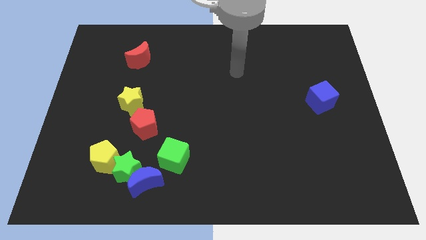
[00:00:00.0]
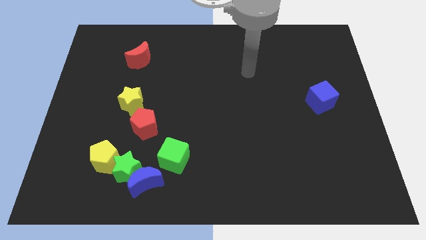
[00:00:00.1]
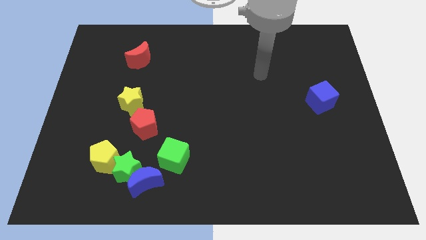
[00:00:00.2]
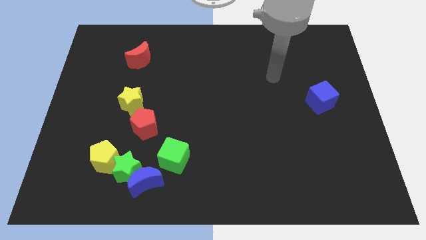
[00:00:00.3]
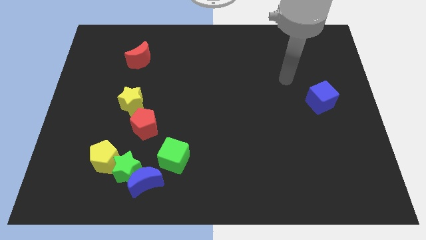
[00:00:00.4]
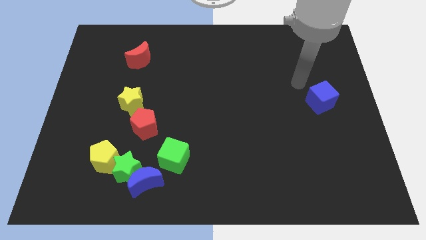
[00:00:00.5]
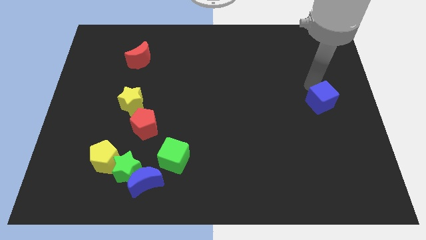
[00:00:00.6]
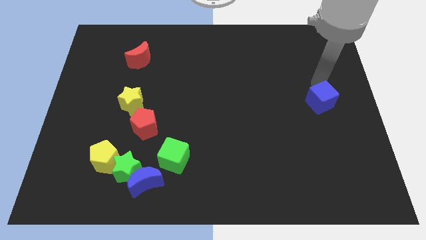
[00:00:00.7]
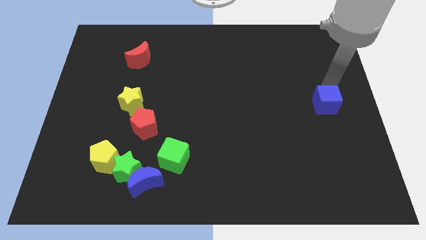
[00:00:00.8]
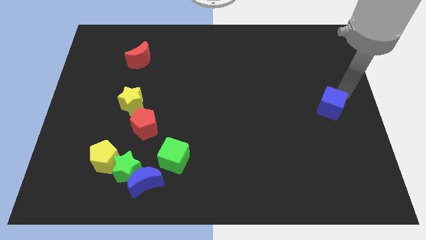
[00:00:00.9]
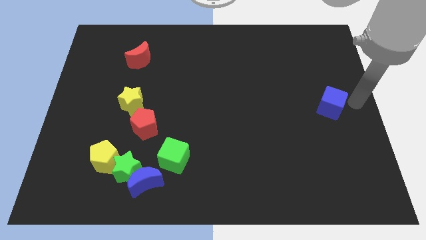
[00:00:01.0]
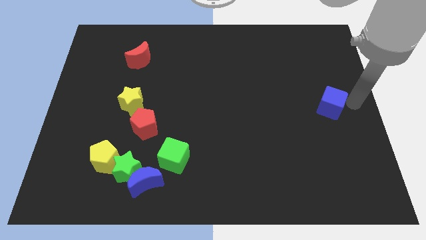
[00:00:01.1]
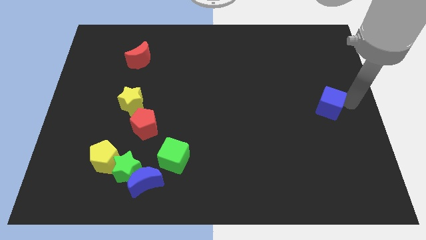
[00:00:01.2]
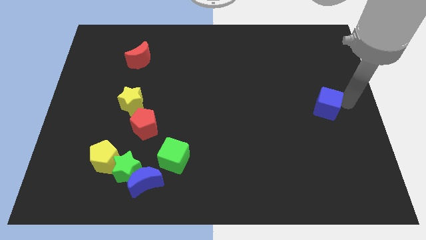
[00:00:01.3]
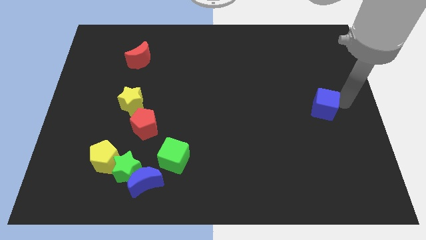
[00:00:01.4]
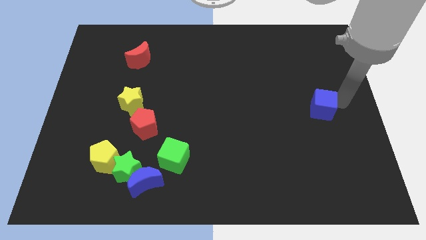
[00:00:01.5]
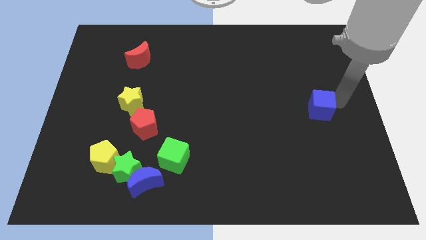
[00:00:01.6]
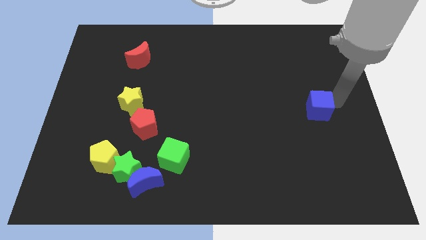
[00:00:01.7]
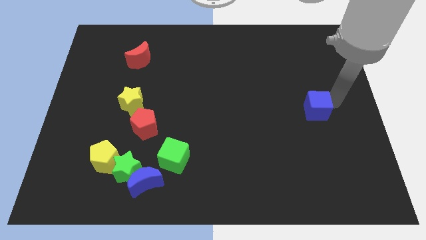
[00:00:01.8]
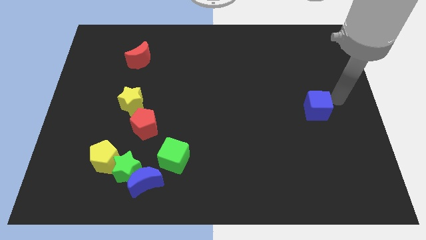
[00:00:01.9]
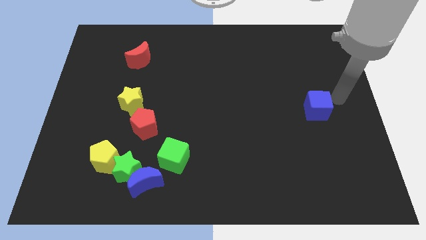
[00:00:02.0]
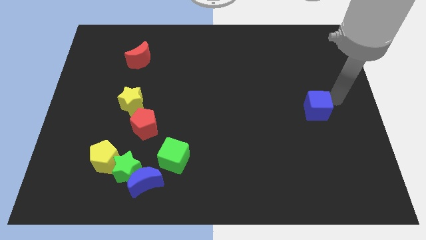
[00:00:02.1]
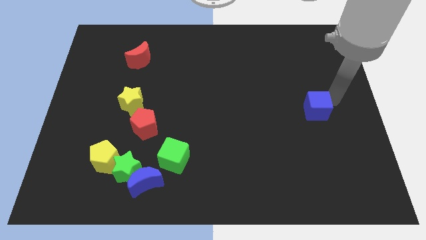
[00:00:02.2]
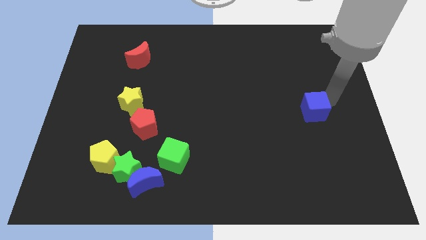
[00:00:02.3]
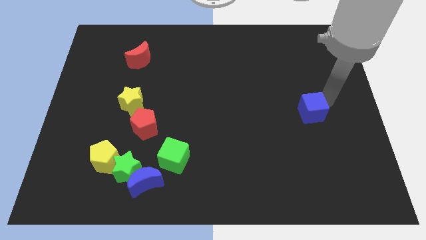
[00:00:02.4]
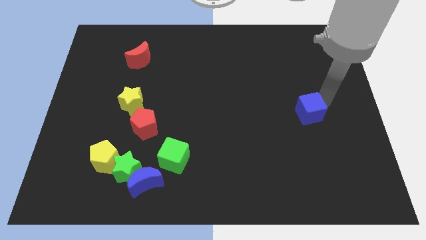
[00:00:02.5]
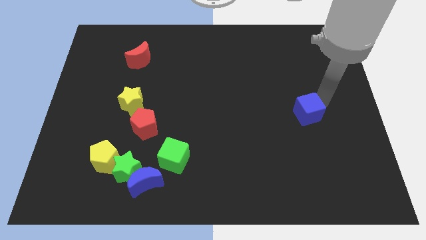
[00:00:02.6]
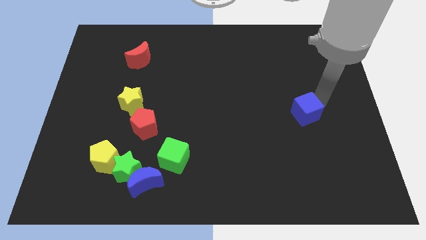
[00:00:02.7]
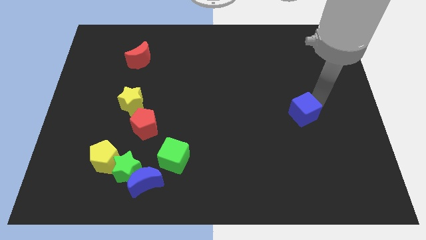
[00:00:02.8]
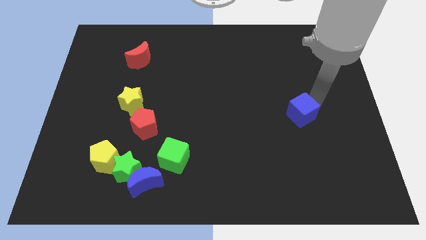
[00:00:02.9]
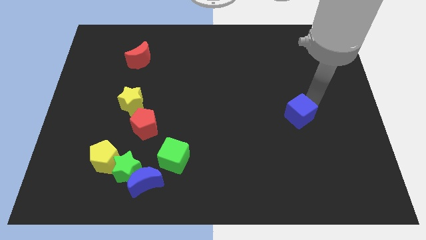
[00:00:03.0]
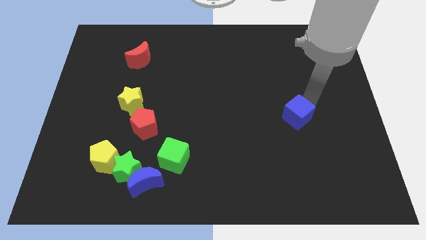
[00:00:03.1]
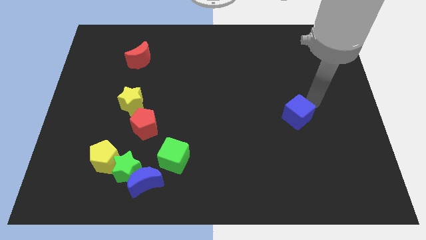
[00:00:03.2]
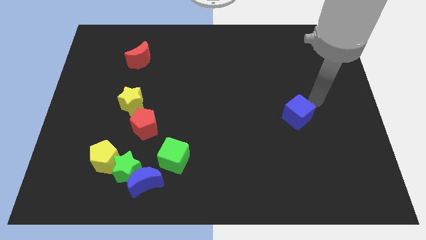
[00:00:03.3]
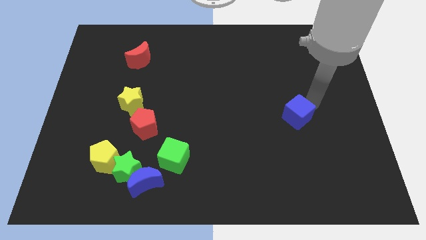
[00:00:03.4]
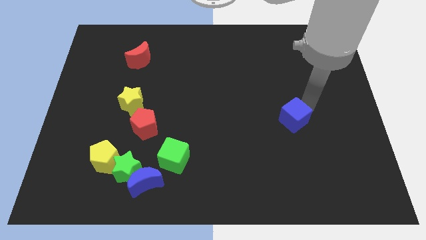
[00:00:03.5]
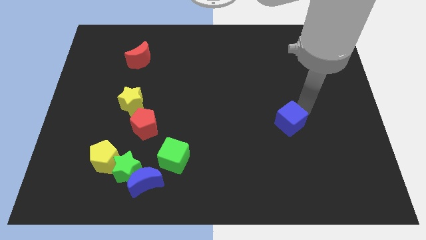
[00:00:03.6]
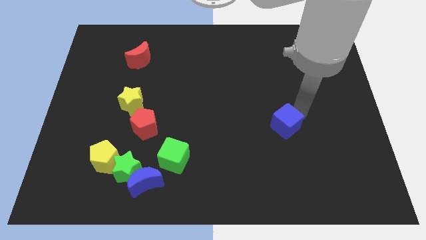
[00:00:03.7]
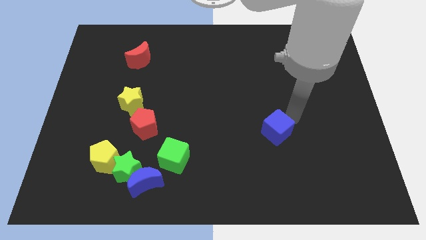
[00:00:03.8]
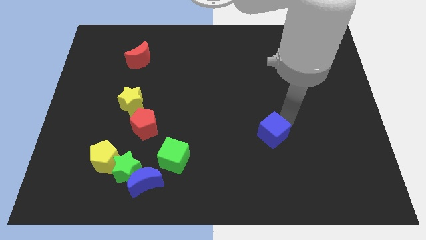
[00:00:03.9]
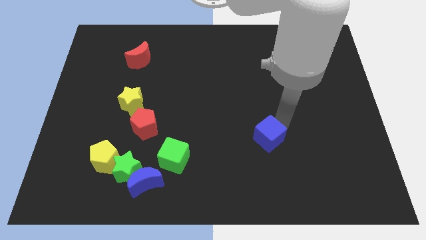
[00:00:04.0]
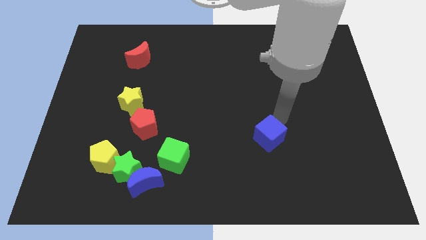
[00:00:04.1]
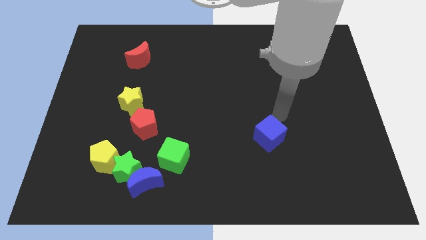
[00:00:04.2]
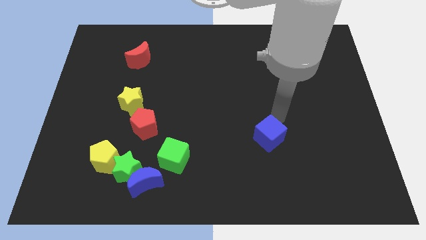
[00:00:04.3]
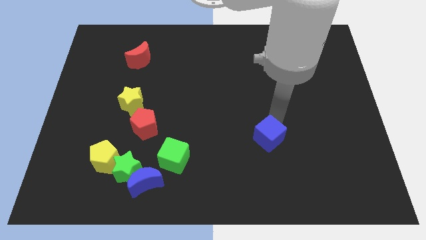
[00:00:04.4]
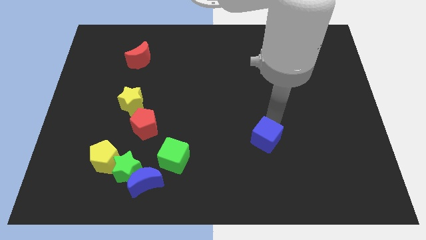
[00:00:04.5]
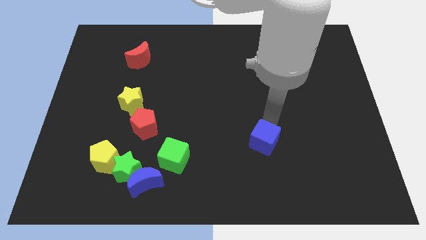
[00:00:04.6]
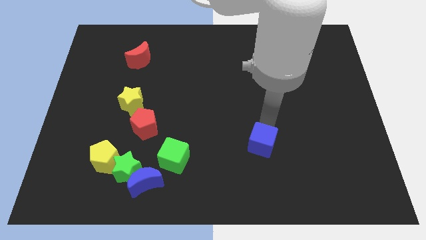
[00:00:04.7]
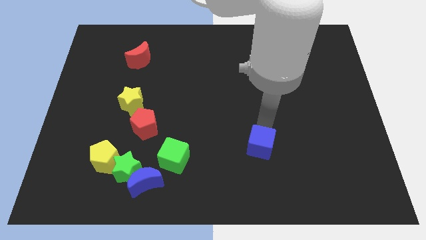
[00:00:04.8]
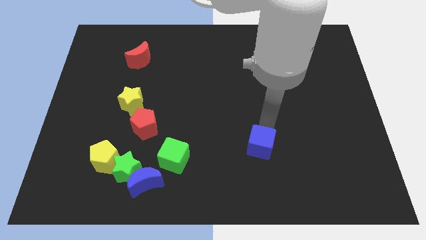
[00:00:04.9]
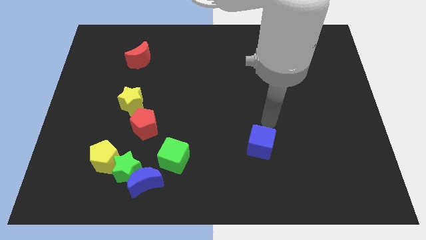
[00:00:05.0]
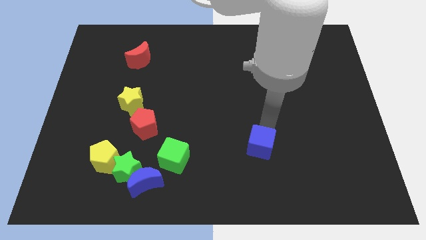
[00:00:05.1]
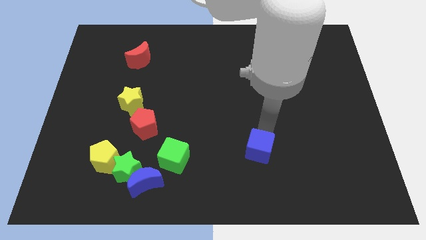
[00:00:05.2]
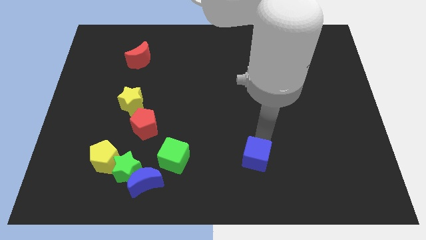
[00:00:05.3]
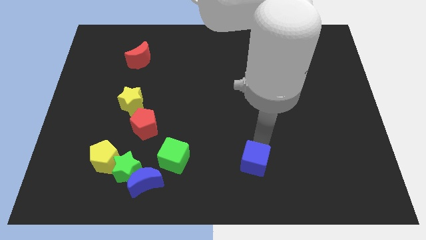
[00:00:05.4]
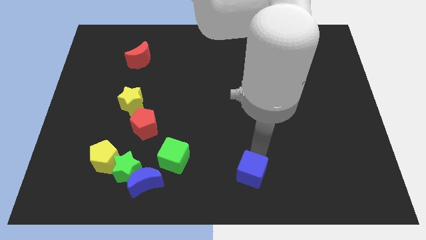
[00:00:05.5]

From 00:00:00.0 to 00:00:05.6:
push the blue cube to the bottom

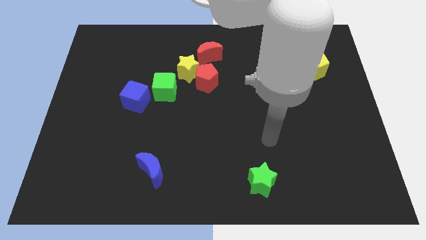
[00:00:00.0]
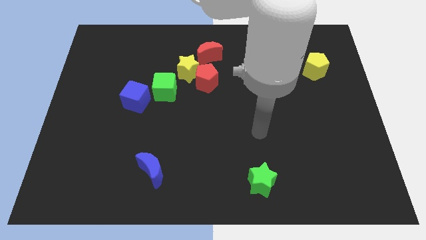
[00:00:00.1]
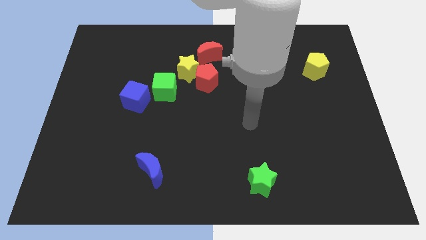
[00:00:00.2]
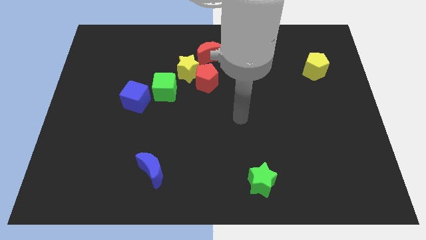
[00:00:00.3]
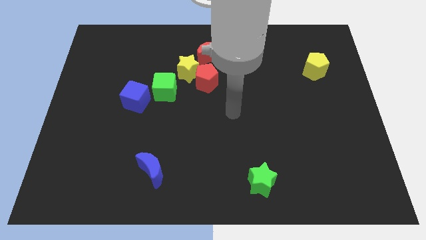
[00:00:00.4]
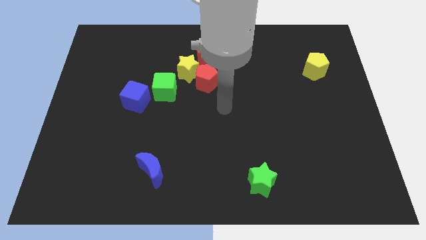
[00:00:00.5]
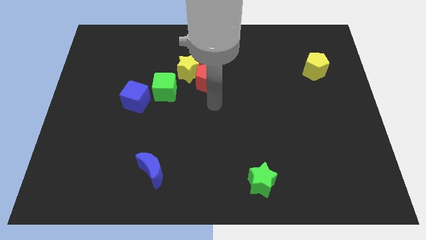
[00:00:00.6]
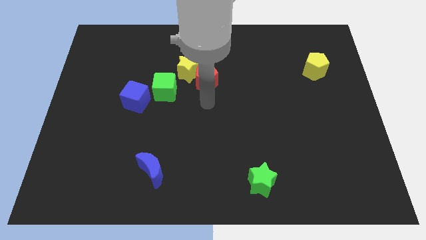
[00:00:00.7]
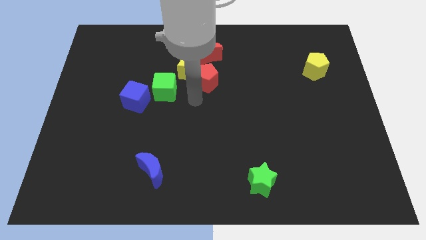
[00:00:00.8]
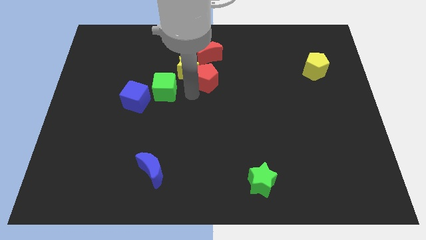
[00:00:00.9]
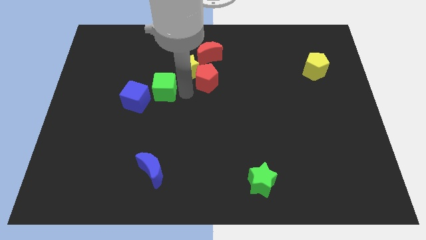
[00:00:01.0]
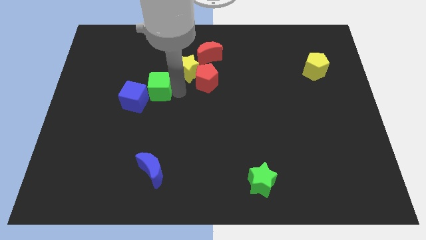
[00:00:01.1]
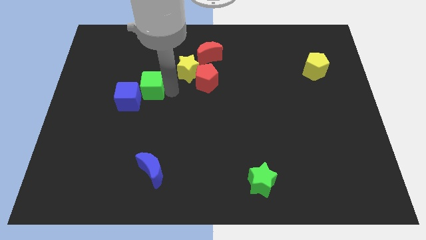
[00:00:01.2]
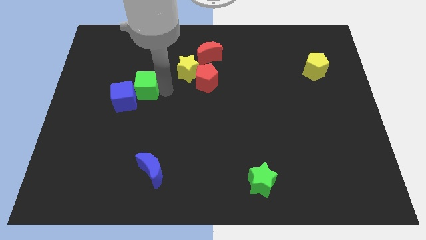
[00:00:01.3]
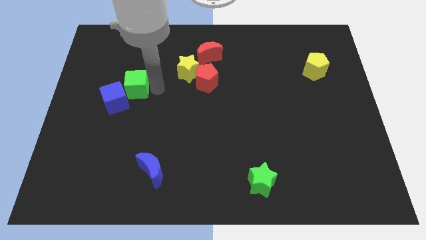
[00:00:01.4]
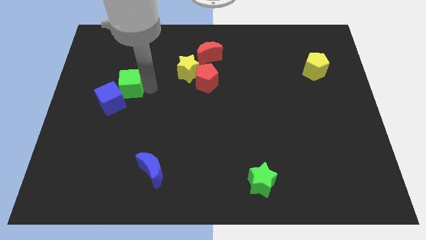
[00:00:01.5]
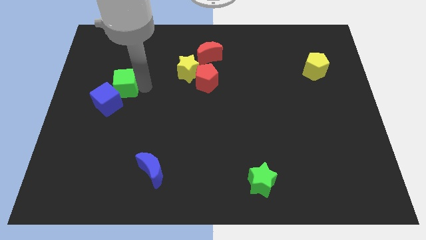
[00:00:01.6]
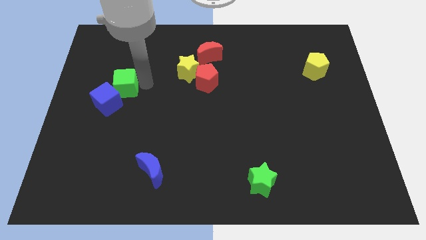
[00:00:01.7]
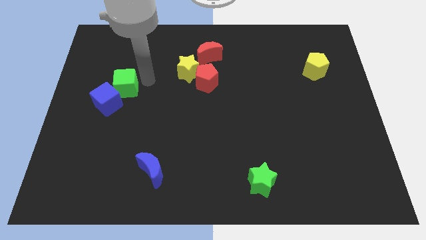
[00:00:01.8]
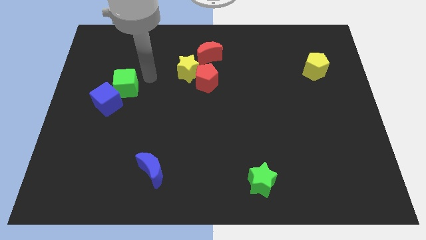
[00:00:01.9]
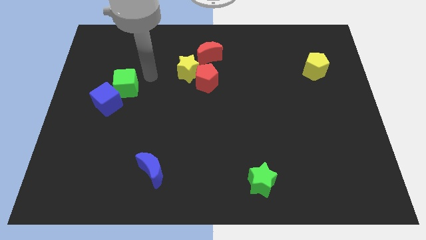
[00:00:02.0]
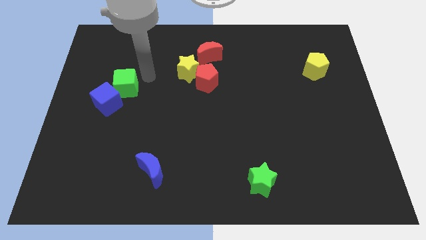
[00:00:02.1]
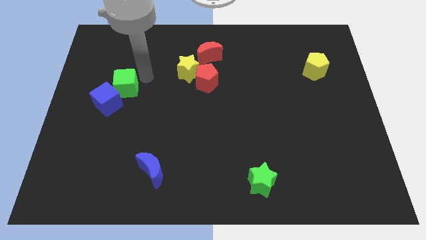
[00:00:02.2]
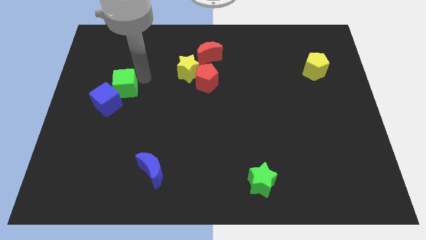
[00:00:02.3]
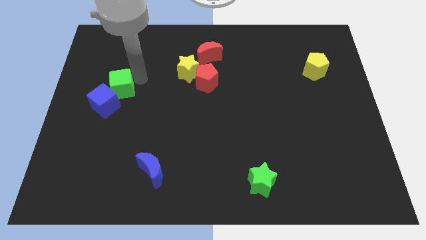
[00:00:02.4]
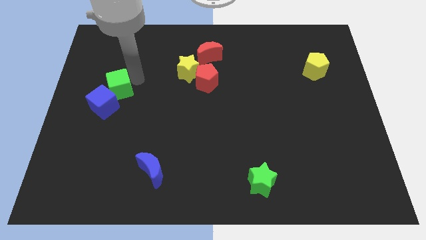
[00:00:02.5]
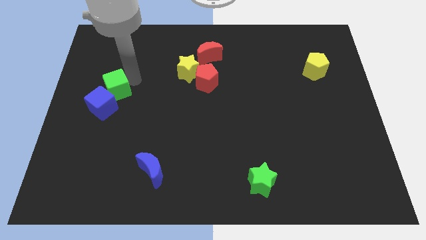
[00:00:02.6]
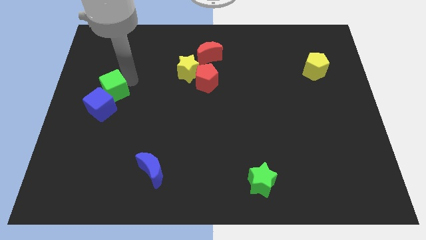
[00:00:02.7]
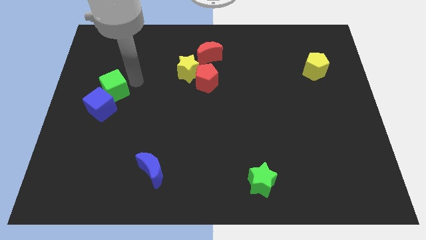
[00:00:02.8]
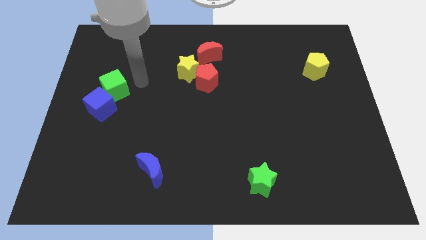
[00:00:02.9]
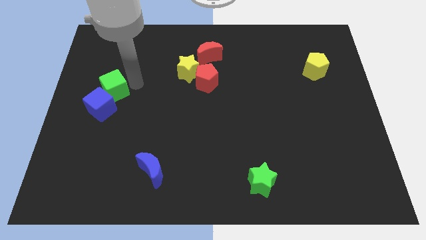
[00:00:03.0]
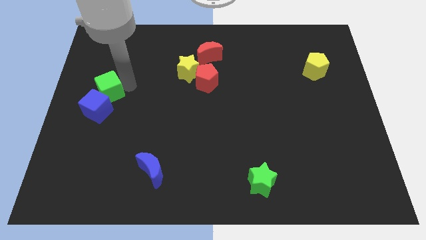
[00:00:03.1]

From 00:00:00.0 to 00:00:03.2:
slide the green cube to the left side of the board
